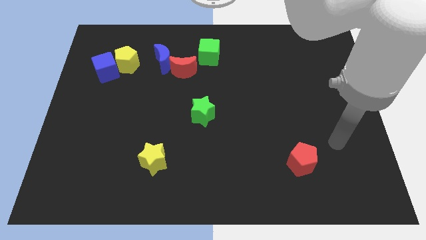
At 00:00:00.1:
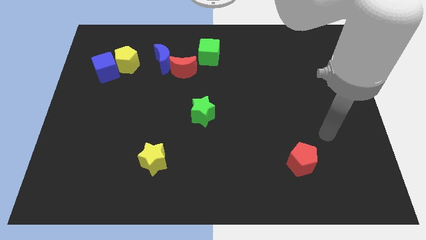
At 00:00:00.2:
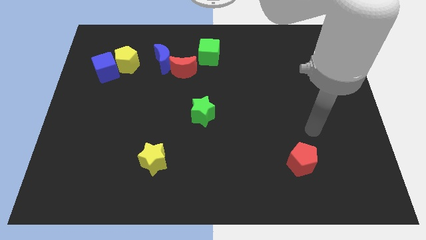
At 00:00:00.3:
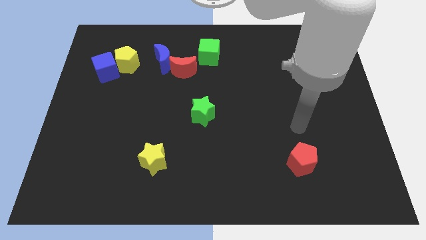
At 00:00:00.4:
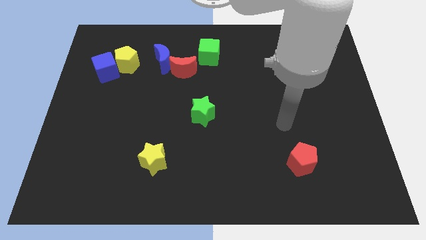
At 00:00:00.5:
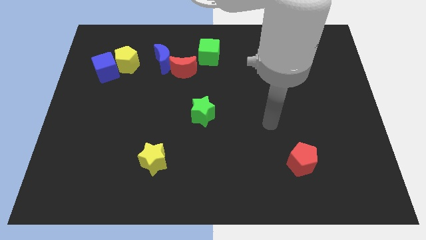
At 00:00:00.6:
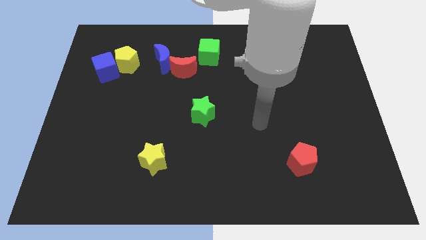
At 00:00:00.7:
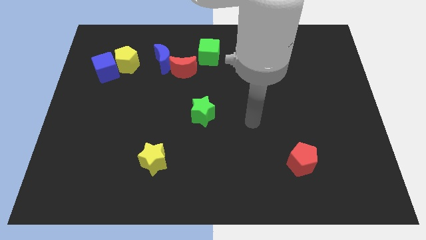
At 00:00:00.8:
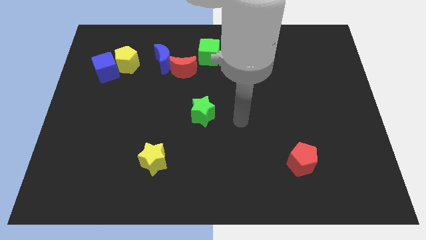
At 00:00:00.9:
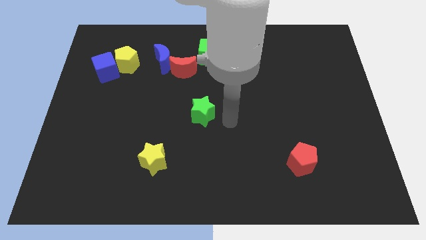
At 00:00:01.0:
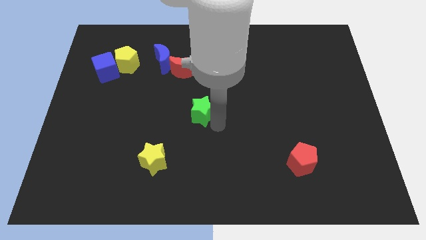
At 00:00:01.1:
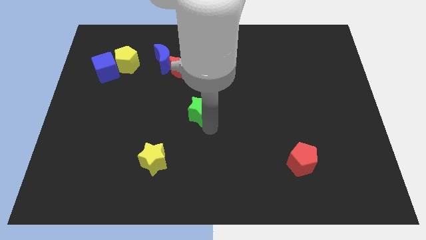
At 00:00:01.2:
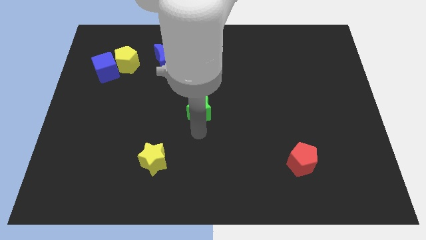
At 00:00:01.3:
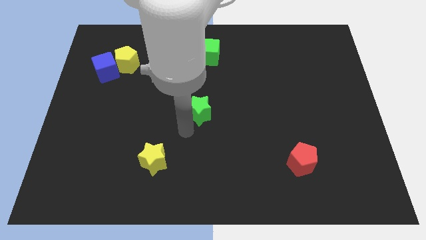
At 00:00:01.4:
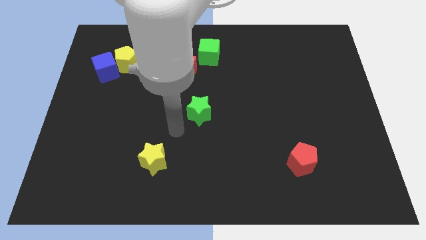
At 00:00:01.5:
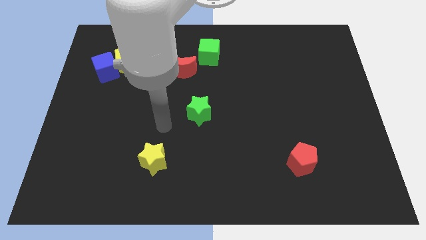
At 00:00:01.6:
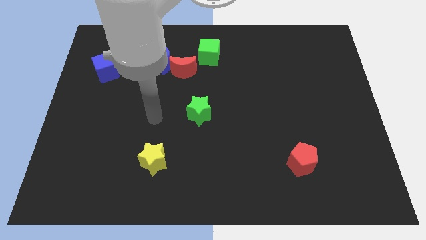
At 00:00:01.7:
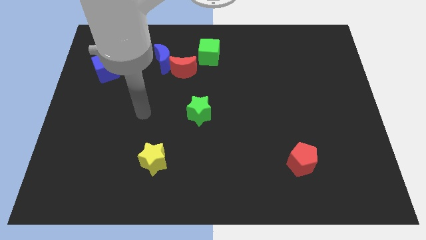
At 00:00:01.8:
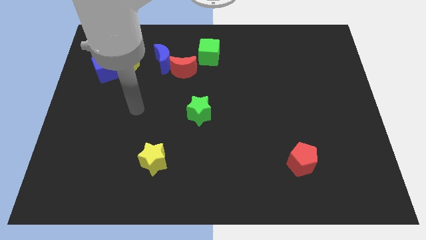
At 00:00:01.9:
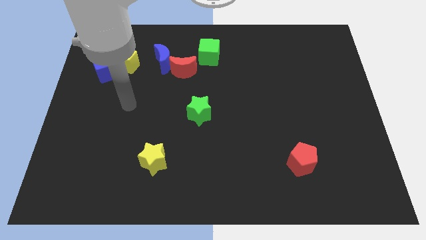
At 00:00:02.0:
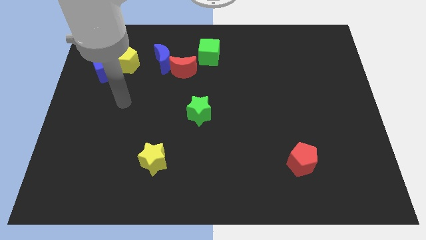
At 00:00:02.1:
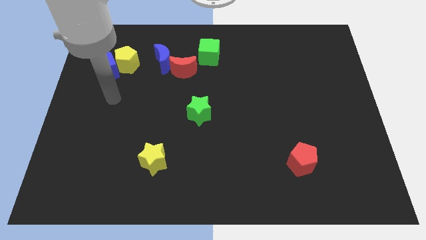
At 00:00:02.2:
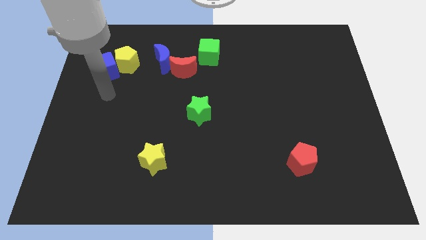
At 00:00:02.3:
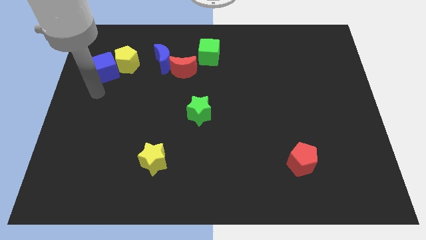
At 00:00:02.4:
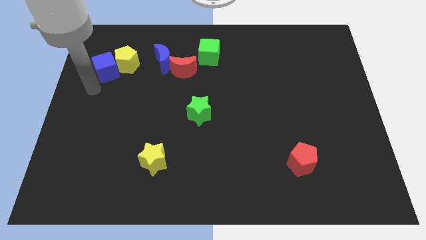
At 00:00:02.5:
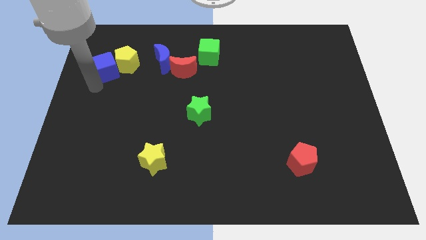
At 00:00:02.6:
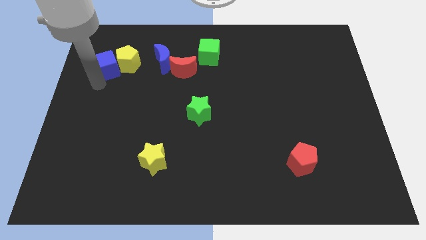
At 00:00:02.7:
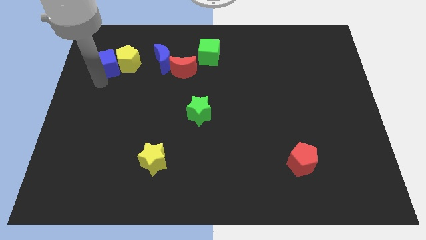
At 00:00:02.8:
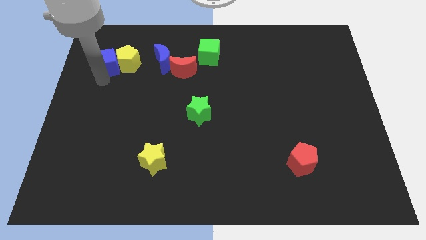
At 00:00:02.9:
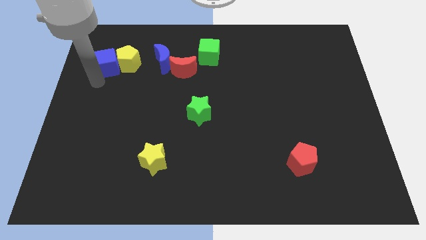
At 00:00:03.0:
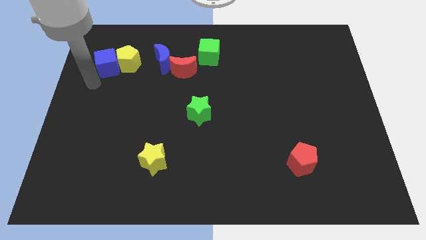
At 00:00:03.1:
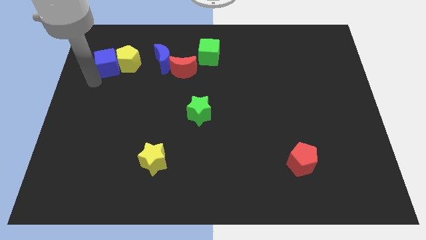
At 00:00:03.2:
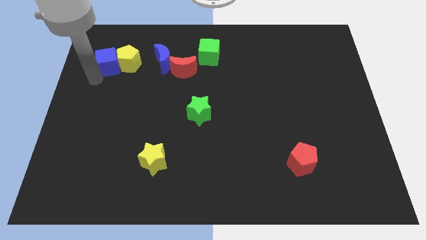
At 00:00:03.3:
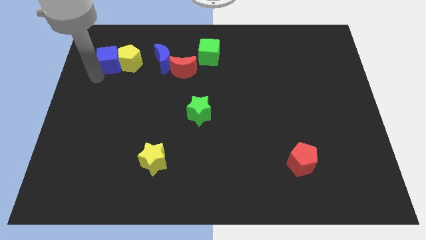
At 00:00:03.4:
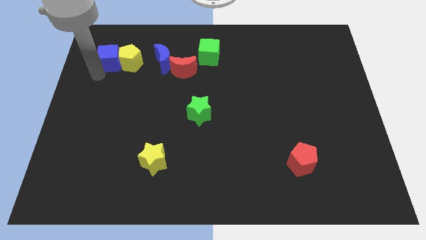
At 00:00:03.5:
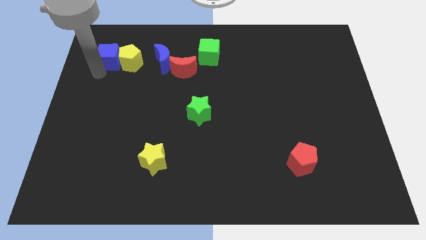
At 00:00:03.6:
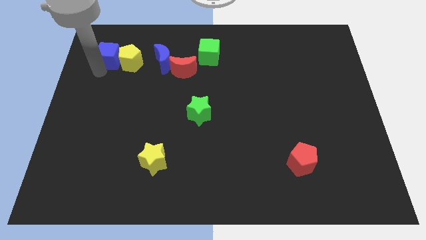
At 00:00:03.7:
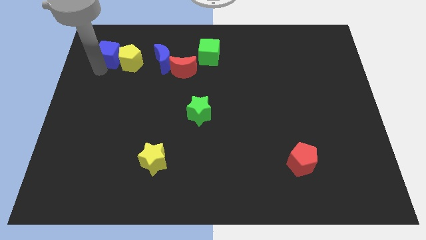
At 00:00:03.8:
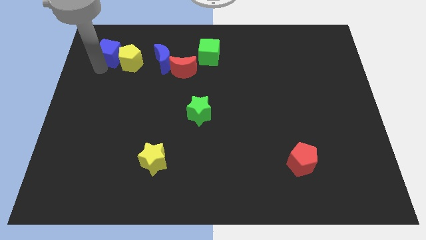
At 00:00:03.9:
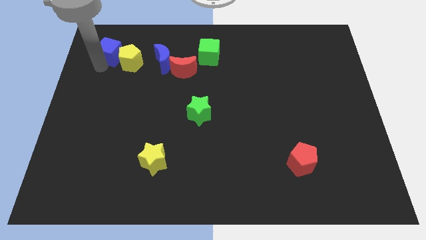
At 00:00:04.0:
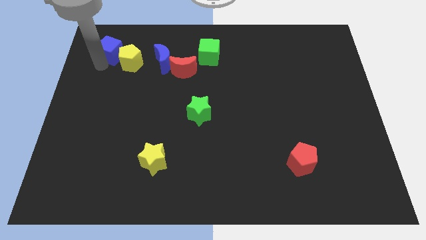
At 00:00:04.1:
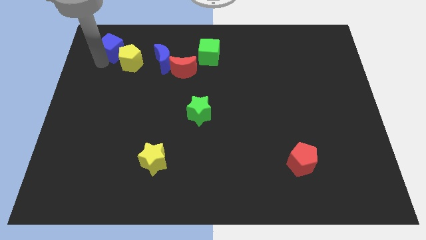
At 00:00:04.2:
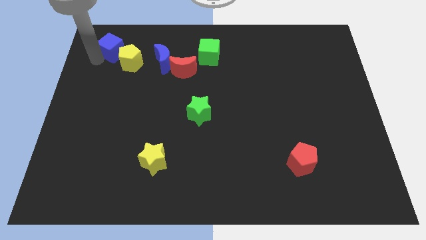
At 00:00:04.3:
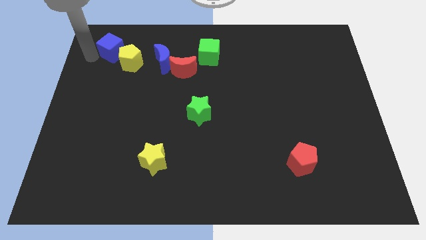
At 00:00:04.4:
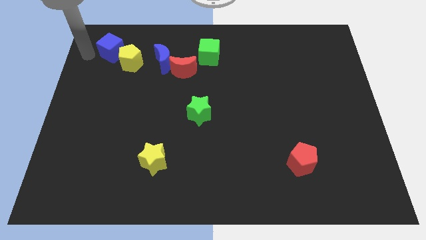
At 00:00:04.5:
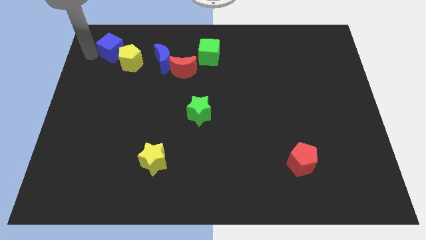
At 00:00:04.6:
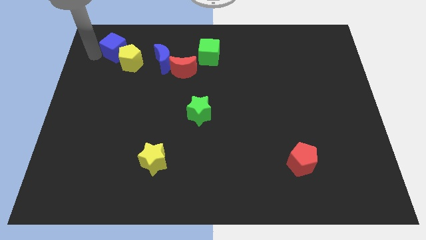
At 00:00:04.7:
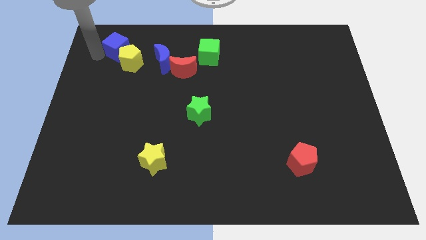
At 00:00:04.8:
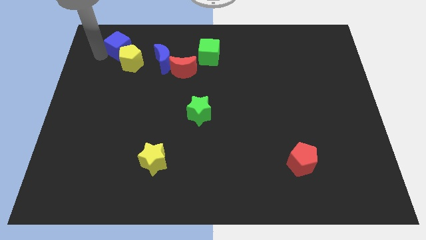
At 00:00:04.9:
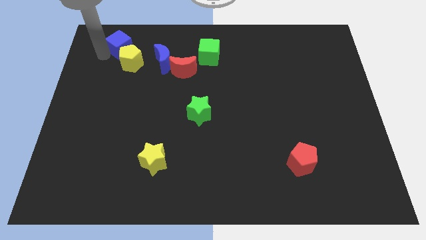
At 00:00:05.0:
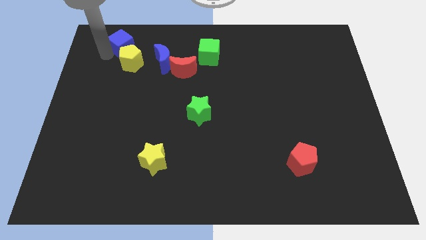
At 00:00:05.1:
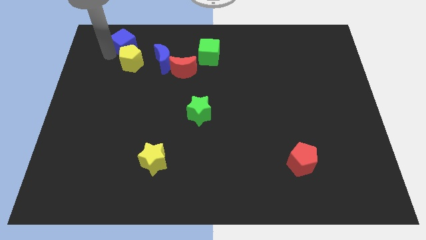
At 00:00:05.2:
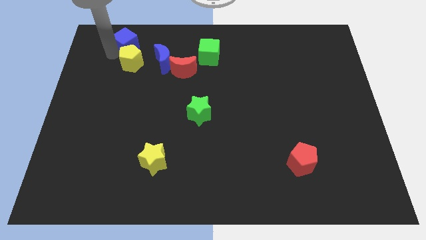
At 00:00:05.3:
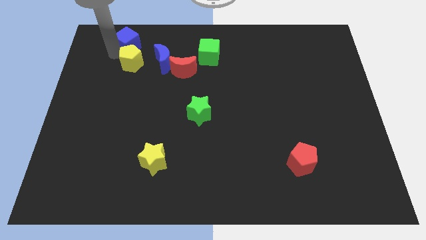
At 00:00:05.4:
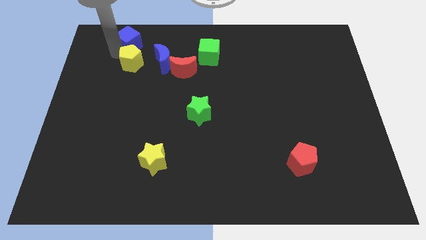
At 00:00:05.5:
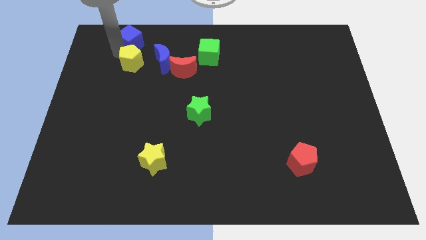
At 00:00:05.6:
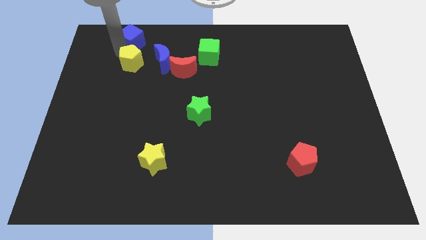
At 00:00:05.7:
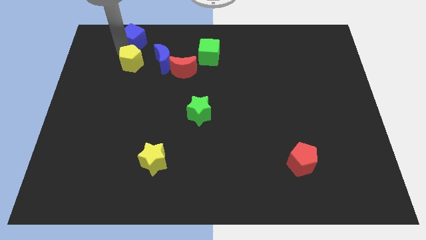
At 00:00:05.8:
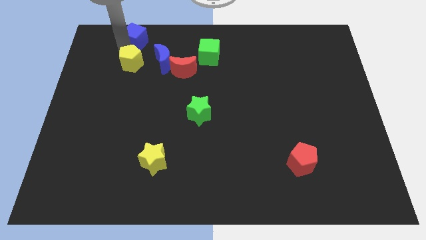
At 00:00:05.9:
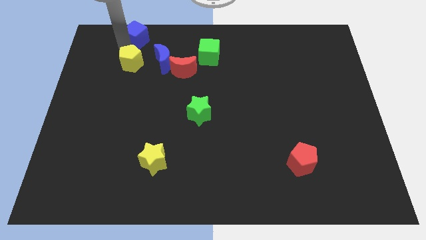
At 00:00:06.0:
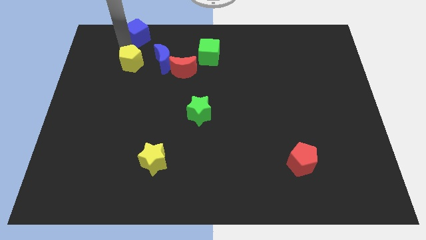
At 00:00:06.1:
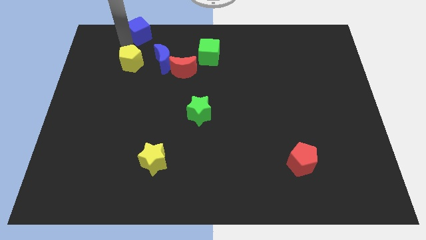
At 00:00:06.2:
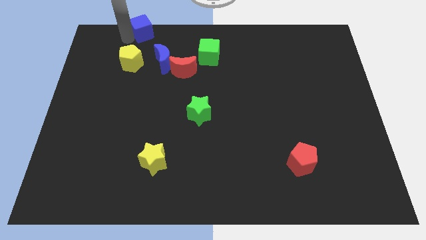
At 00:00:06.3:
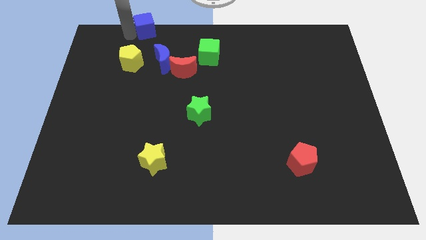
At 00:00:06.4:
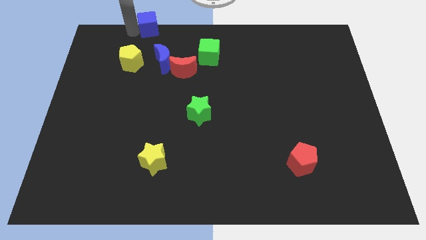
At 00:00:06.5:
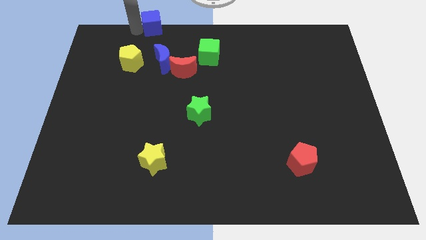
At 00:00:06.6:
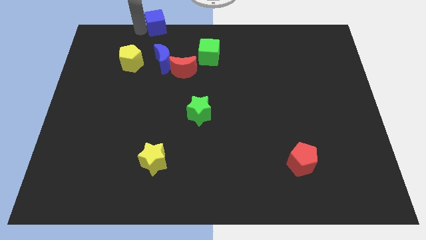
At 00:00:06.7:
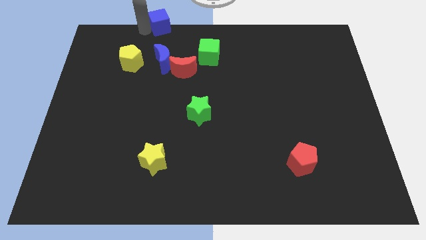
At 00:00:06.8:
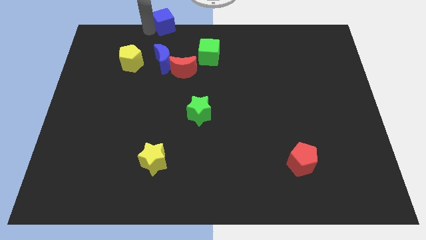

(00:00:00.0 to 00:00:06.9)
put the blue cube to the top side
